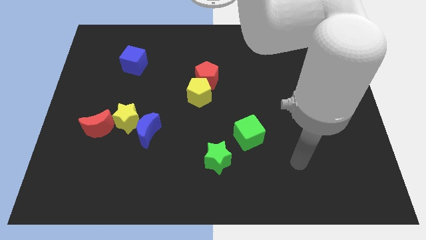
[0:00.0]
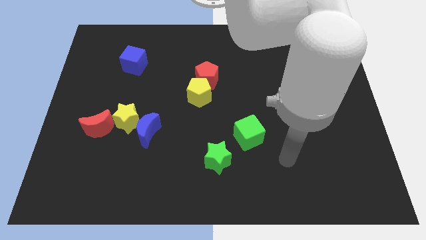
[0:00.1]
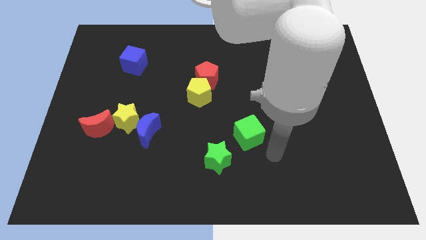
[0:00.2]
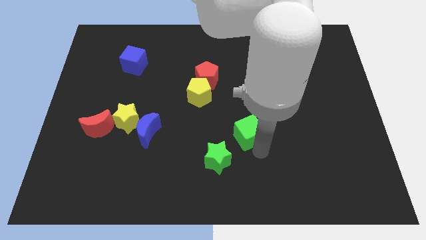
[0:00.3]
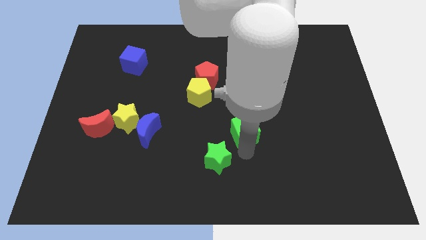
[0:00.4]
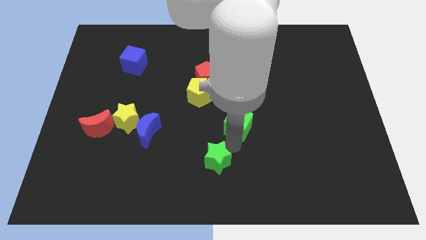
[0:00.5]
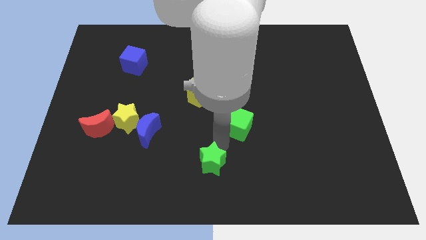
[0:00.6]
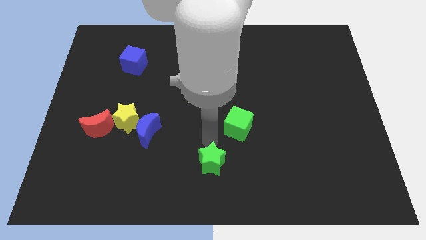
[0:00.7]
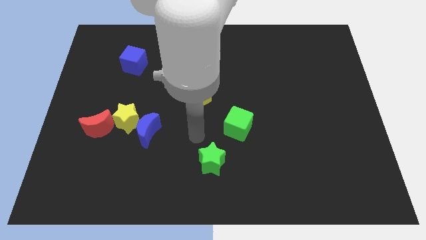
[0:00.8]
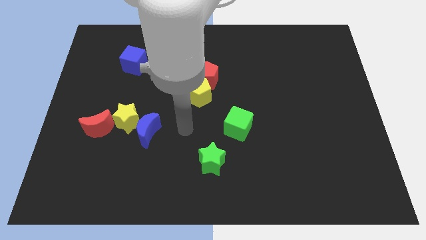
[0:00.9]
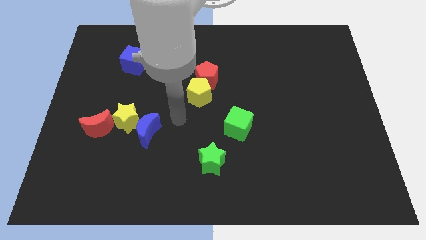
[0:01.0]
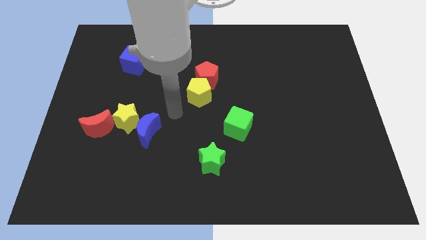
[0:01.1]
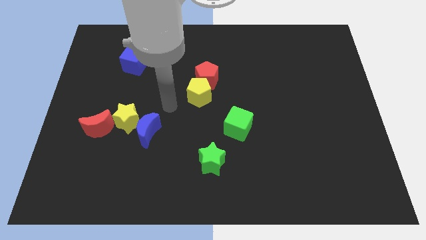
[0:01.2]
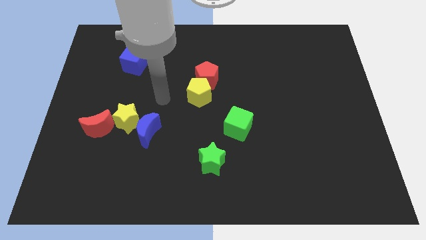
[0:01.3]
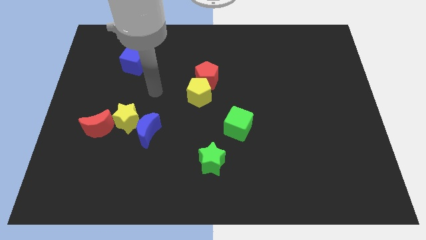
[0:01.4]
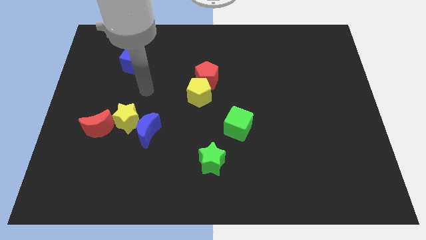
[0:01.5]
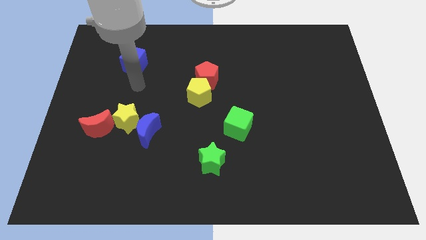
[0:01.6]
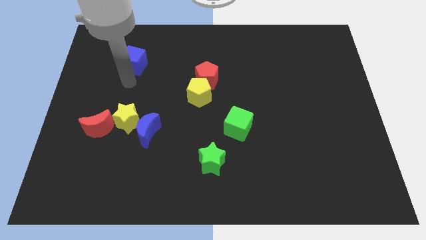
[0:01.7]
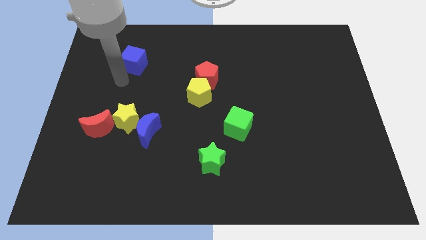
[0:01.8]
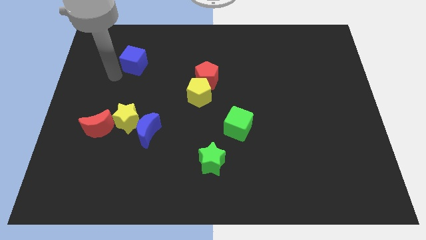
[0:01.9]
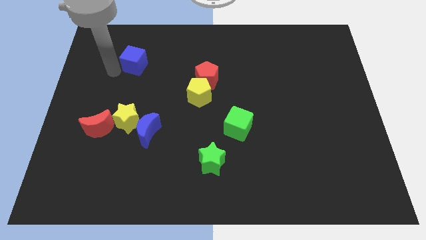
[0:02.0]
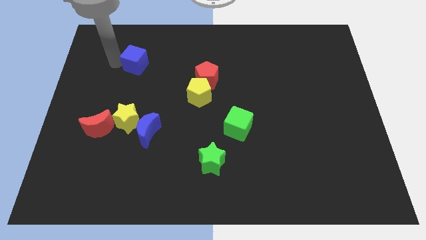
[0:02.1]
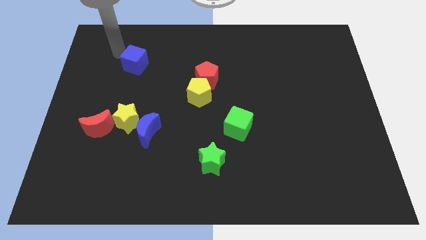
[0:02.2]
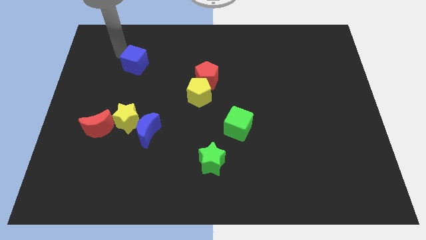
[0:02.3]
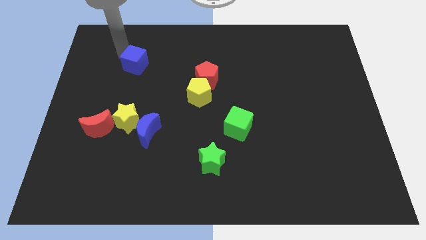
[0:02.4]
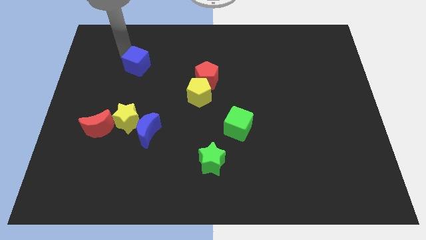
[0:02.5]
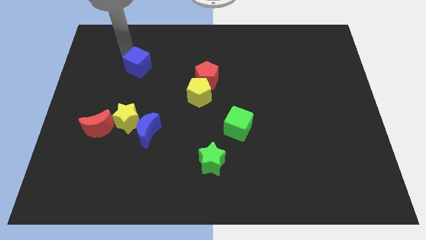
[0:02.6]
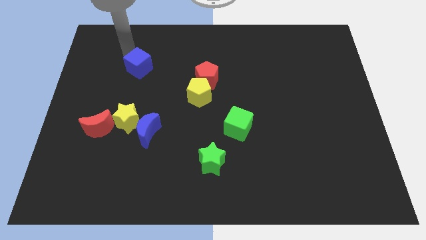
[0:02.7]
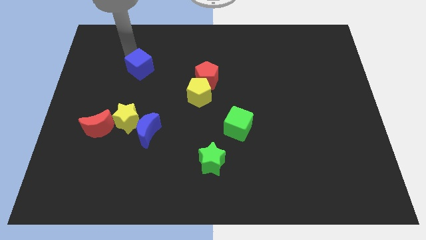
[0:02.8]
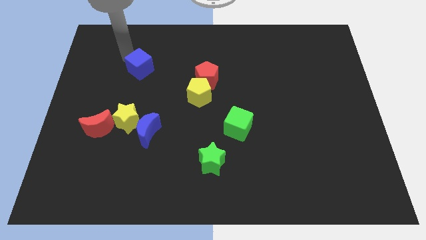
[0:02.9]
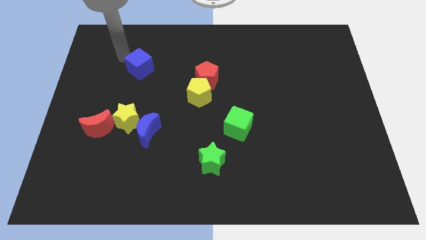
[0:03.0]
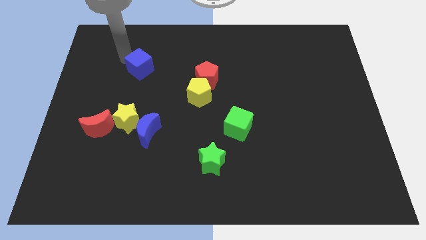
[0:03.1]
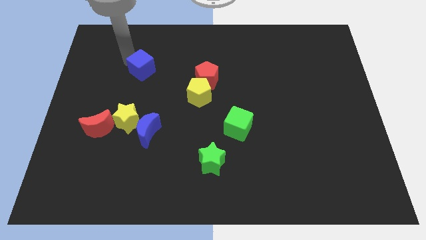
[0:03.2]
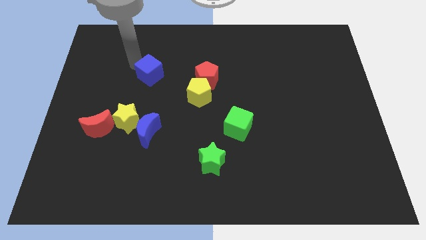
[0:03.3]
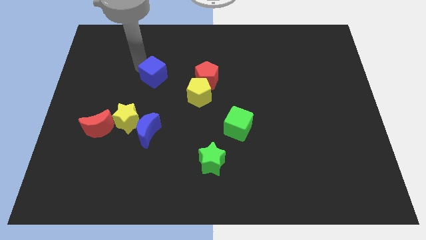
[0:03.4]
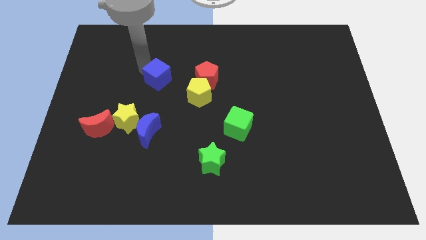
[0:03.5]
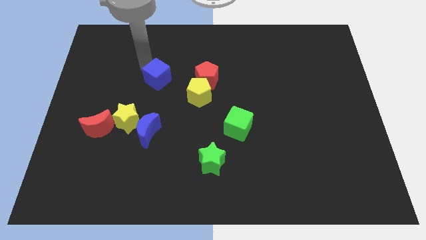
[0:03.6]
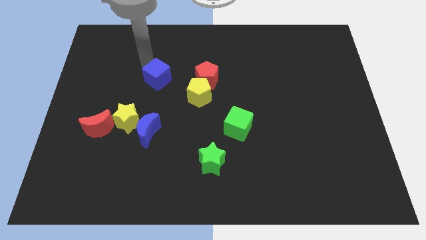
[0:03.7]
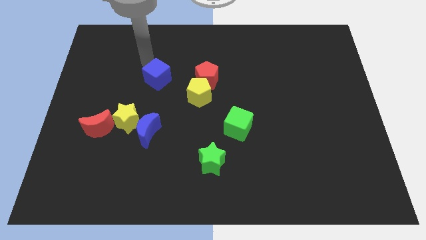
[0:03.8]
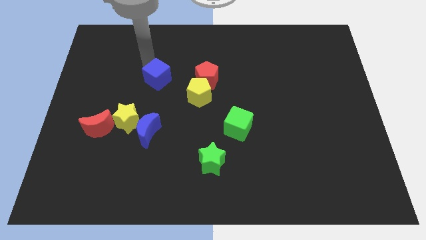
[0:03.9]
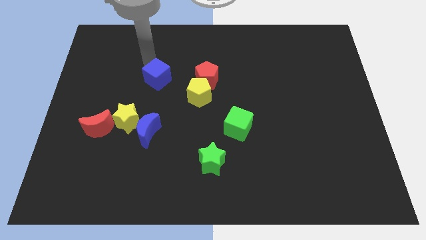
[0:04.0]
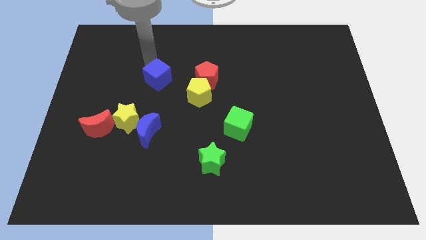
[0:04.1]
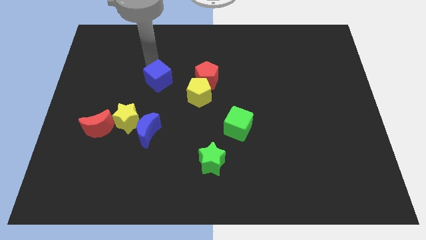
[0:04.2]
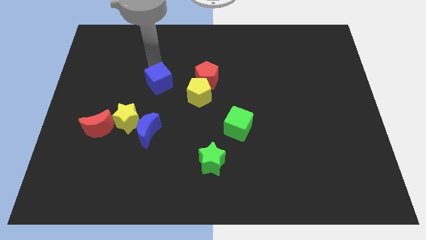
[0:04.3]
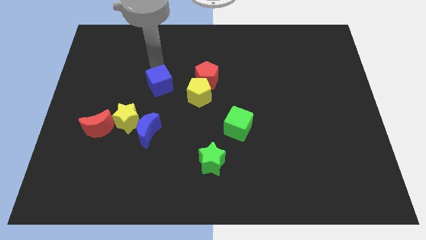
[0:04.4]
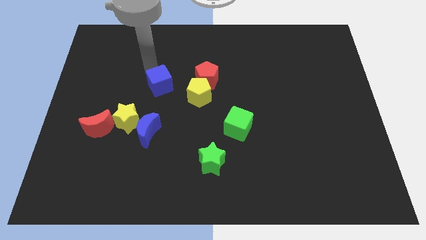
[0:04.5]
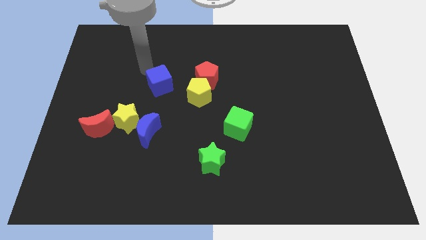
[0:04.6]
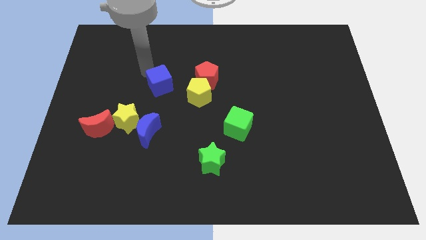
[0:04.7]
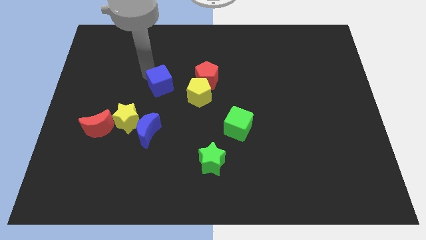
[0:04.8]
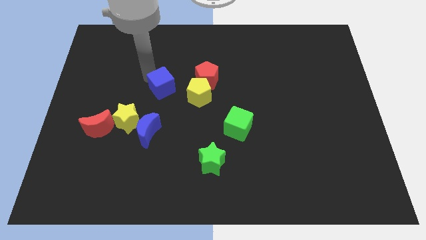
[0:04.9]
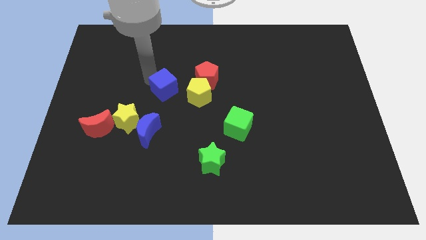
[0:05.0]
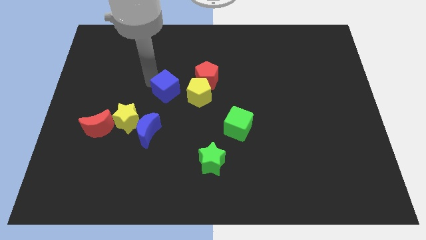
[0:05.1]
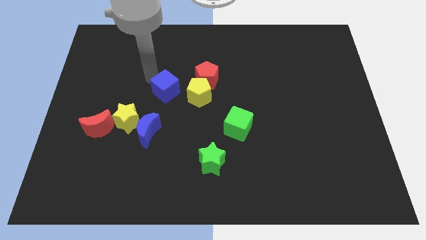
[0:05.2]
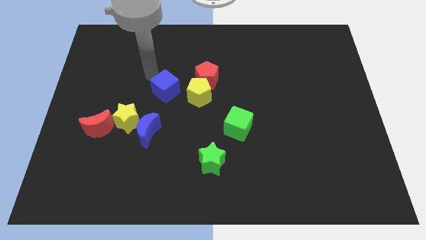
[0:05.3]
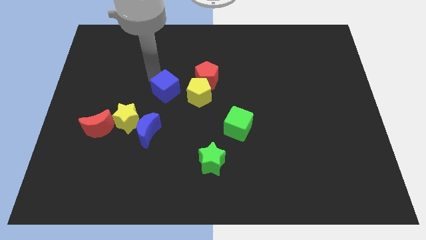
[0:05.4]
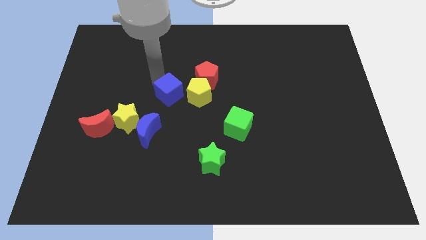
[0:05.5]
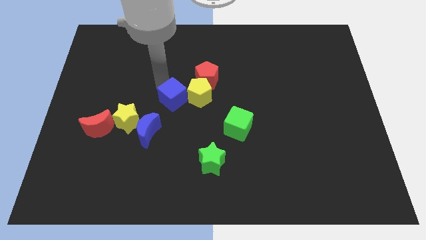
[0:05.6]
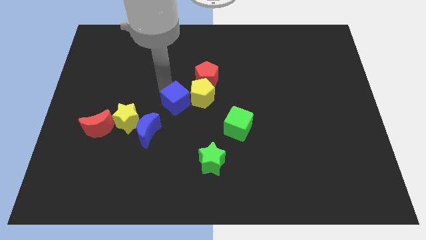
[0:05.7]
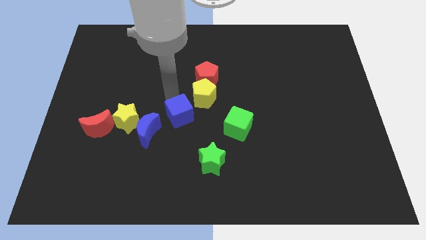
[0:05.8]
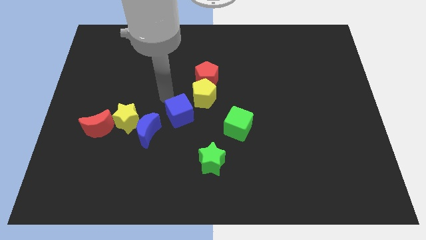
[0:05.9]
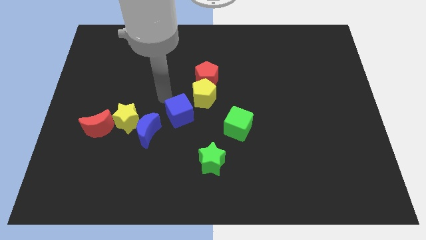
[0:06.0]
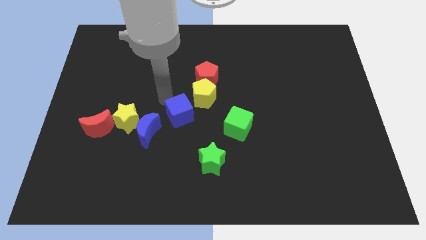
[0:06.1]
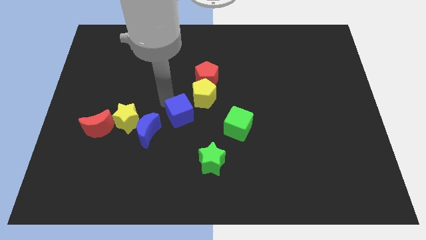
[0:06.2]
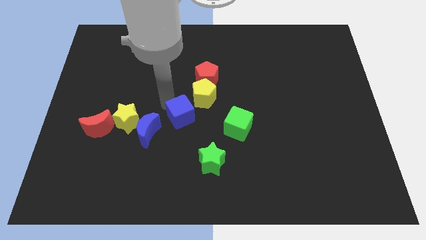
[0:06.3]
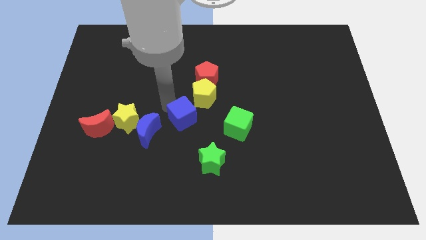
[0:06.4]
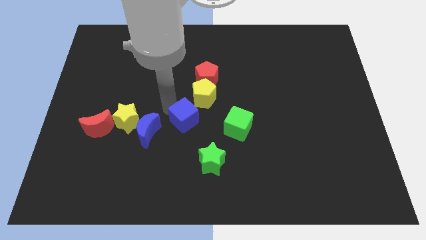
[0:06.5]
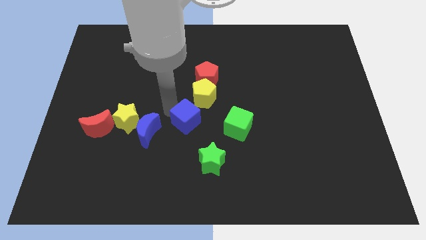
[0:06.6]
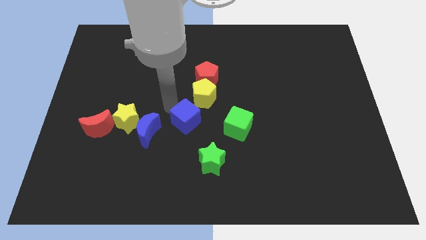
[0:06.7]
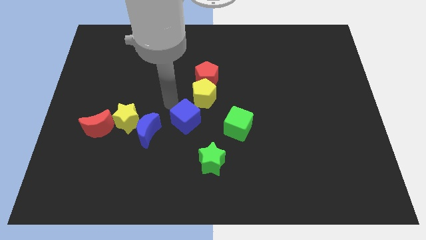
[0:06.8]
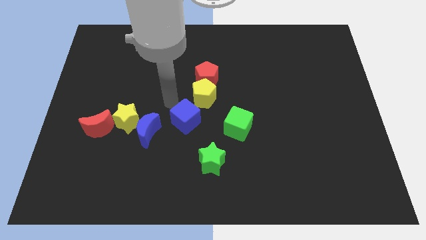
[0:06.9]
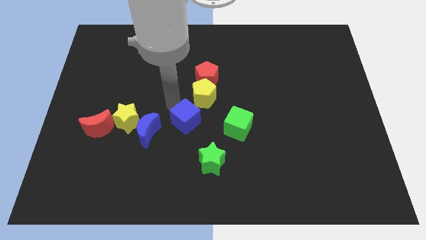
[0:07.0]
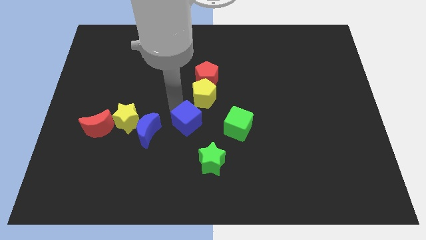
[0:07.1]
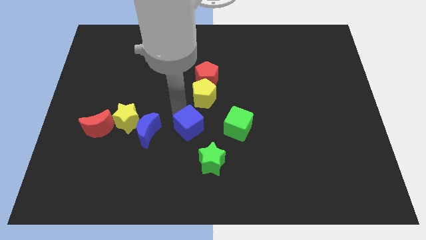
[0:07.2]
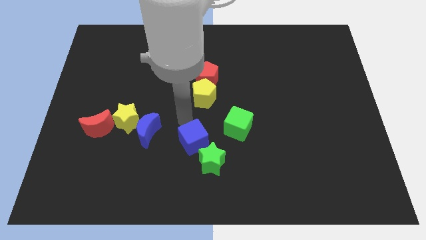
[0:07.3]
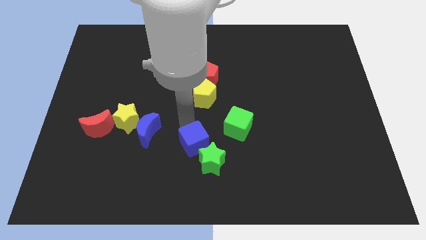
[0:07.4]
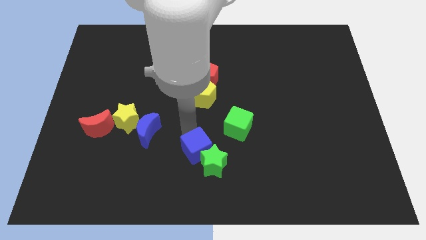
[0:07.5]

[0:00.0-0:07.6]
push the blue cube to the green star
